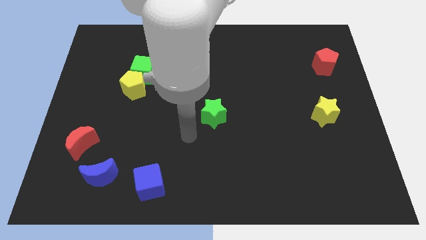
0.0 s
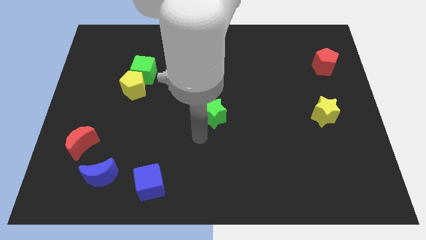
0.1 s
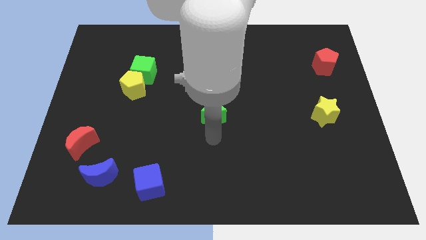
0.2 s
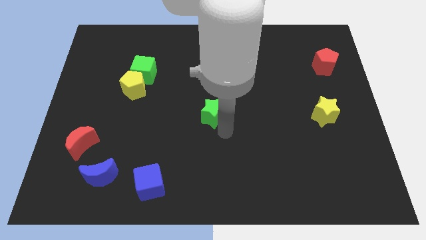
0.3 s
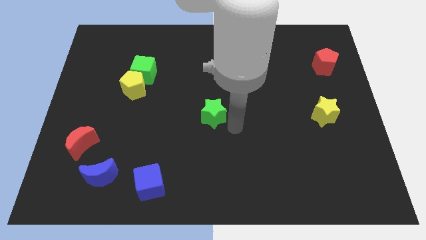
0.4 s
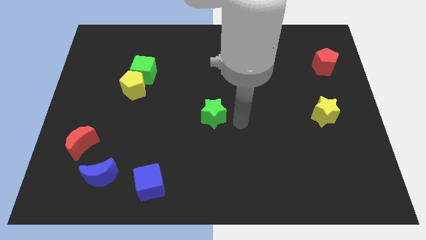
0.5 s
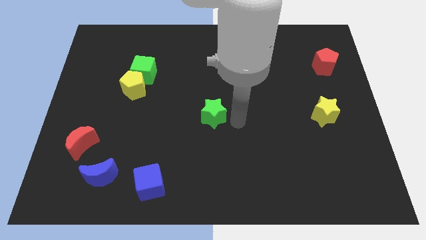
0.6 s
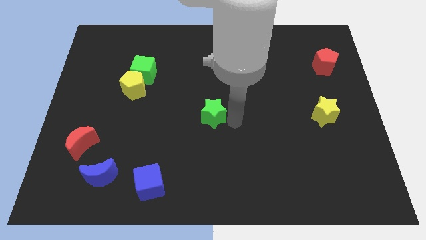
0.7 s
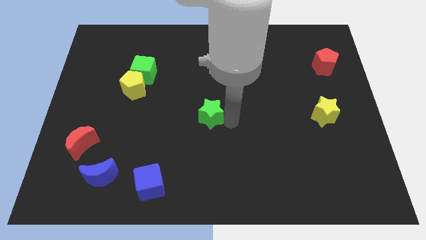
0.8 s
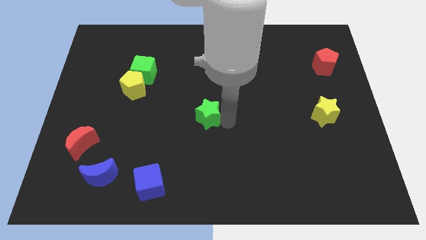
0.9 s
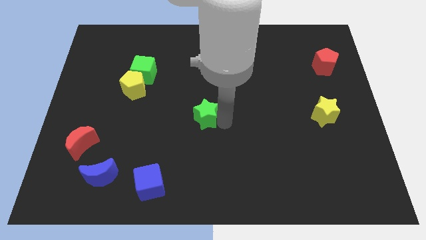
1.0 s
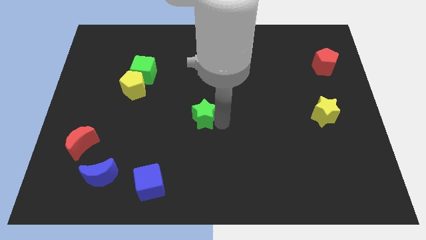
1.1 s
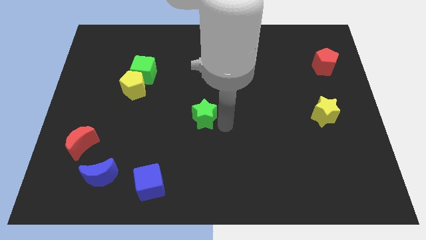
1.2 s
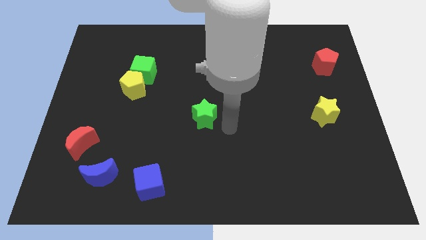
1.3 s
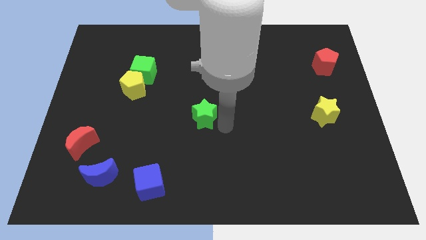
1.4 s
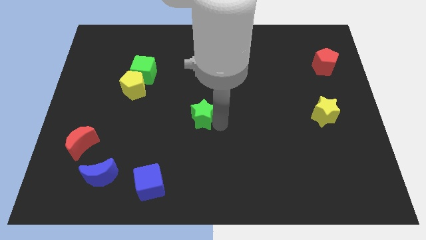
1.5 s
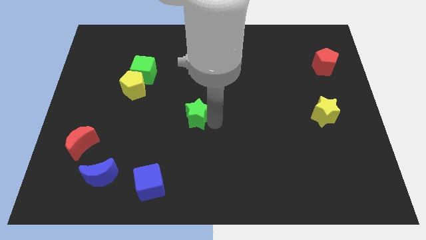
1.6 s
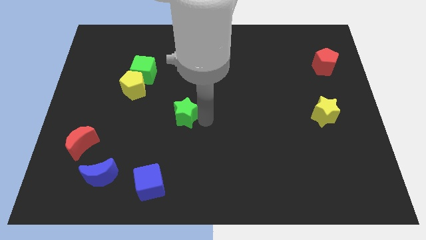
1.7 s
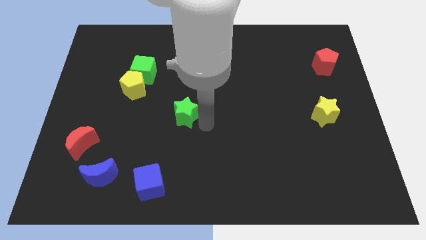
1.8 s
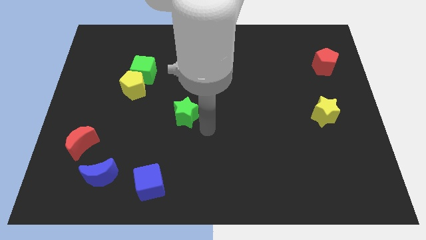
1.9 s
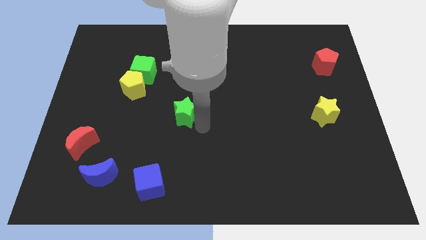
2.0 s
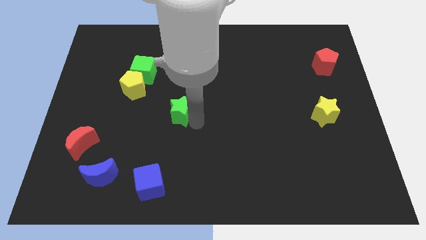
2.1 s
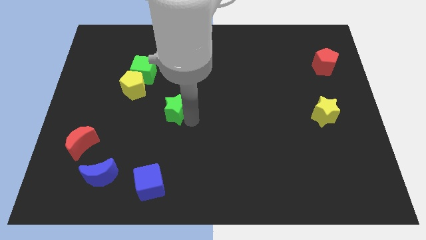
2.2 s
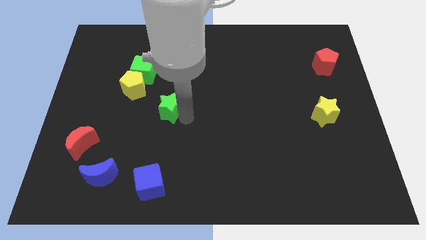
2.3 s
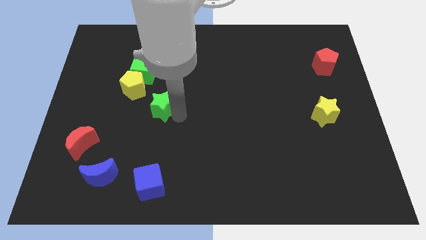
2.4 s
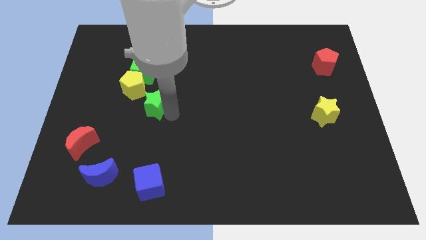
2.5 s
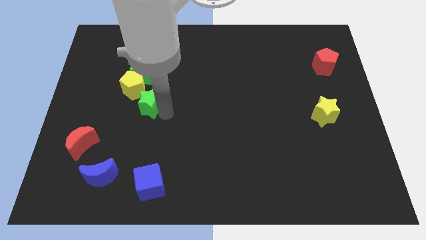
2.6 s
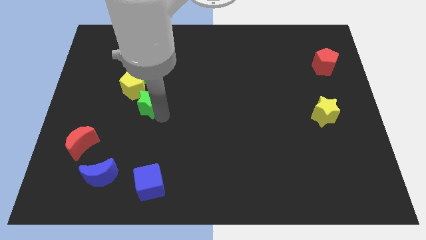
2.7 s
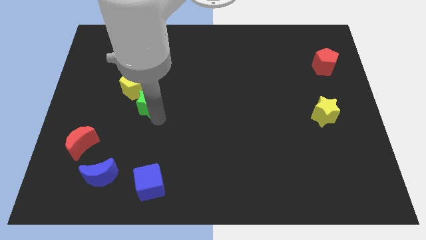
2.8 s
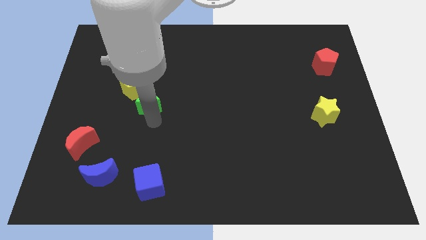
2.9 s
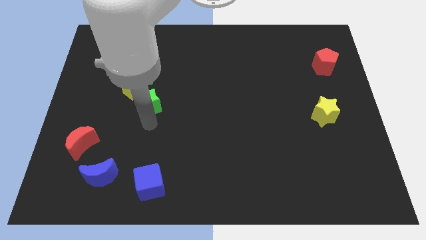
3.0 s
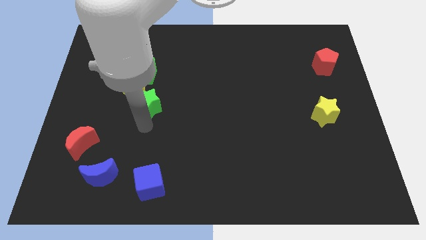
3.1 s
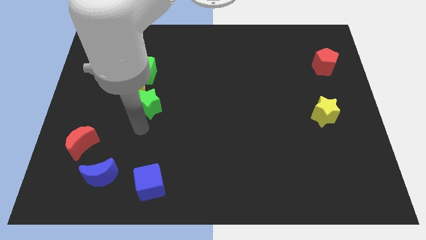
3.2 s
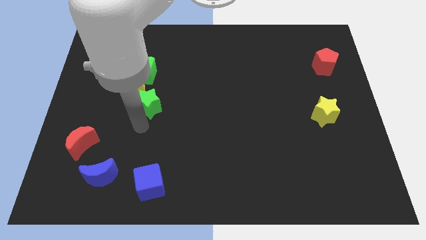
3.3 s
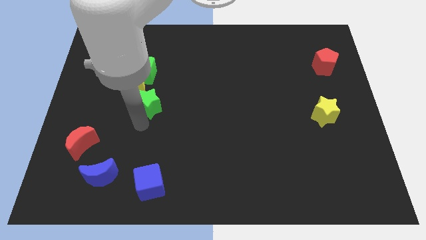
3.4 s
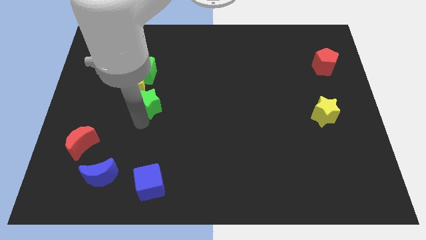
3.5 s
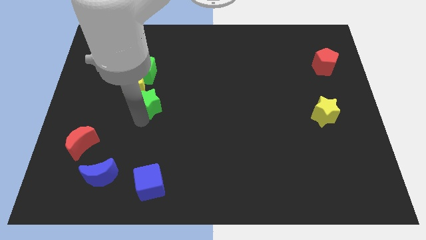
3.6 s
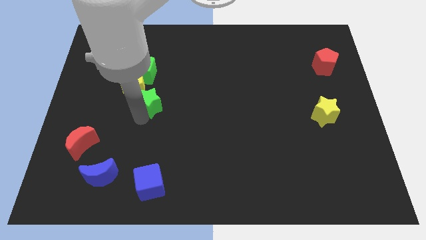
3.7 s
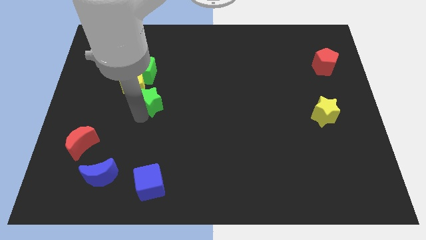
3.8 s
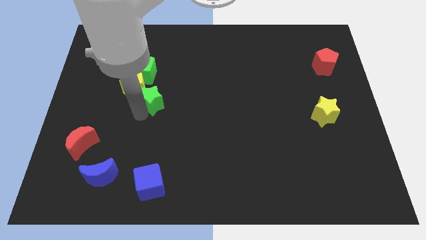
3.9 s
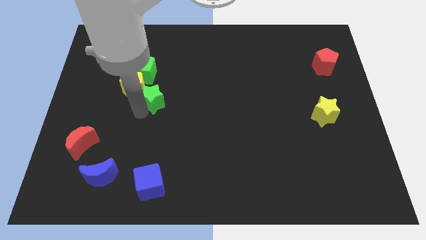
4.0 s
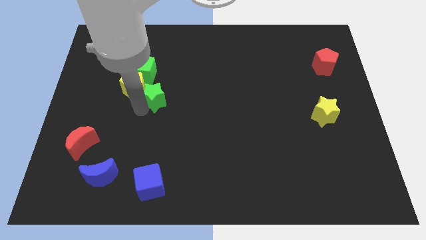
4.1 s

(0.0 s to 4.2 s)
slide the green star towards the yellow pentagon

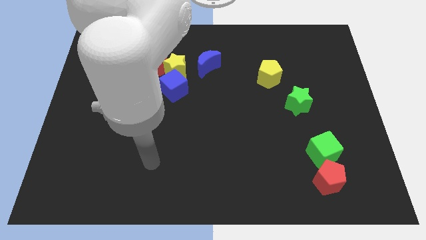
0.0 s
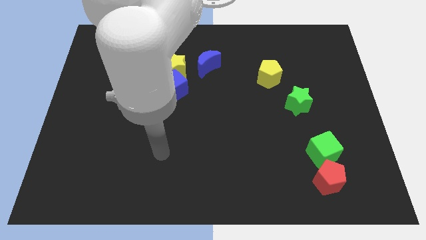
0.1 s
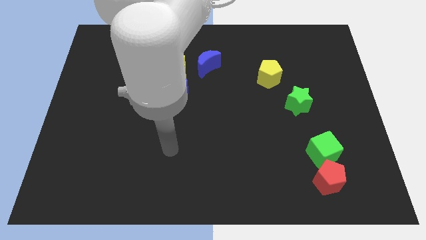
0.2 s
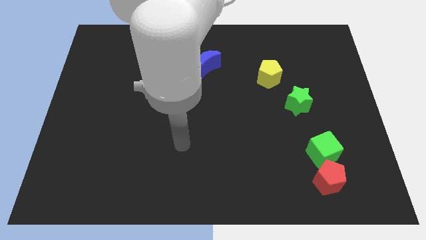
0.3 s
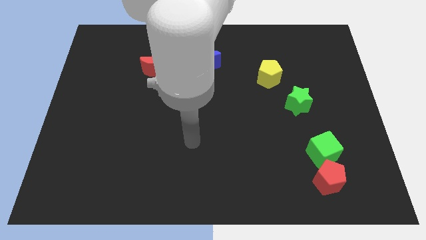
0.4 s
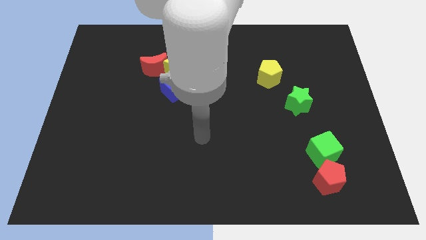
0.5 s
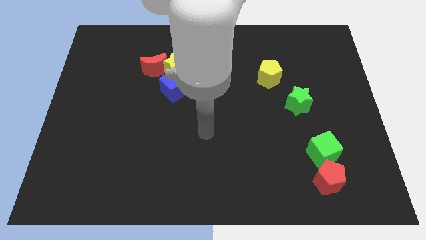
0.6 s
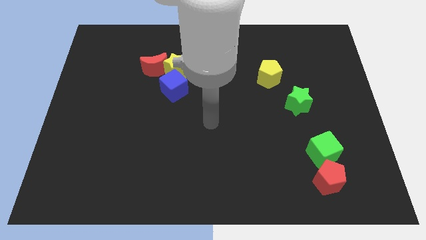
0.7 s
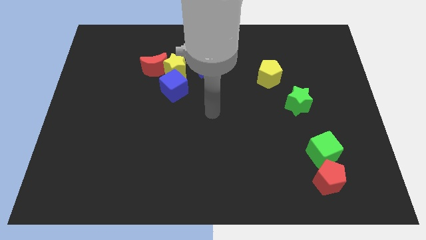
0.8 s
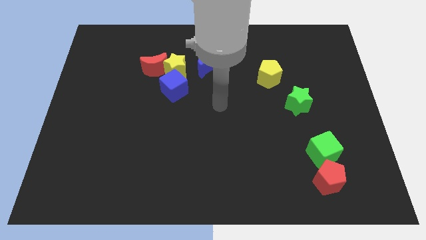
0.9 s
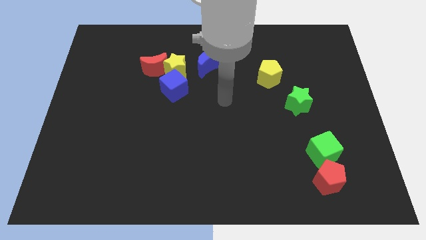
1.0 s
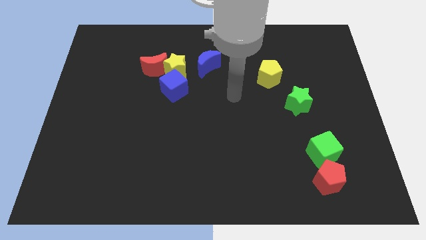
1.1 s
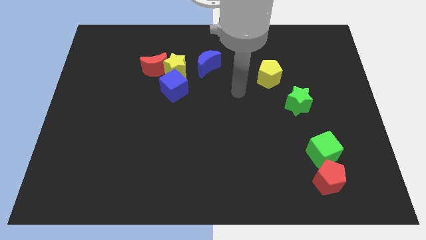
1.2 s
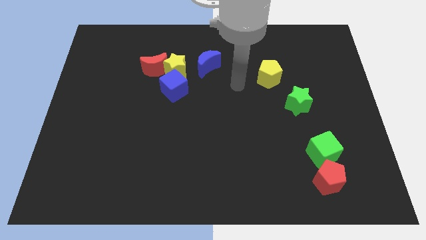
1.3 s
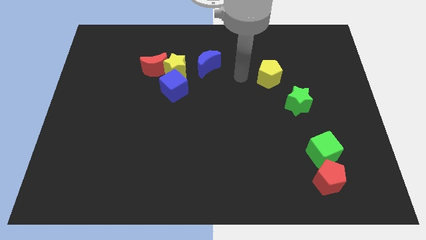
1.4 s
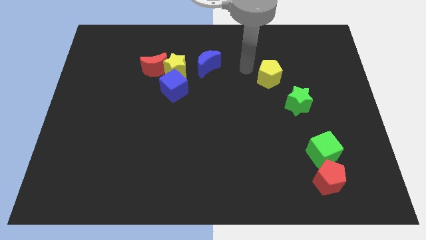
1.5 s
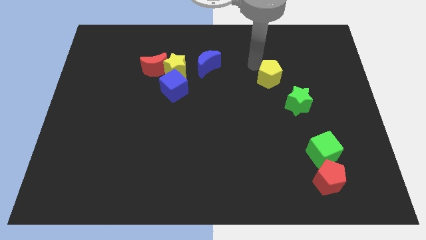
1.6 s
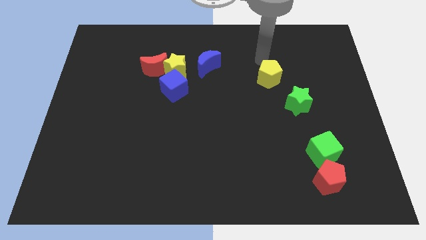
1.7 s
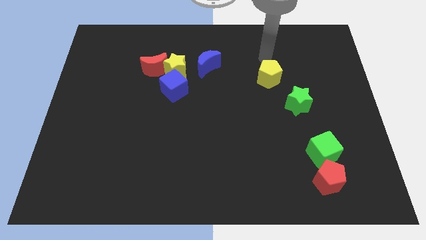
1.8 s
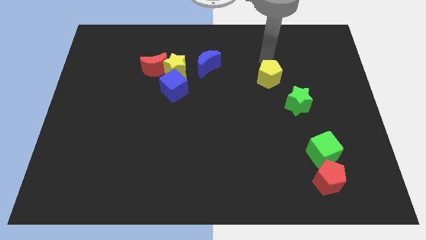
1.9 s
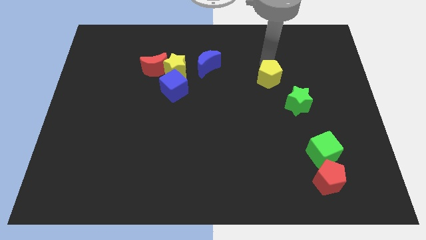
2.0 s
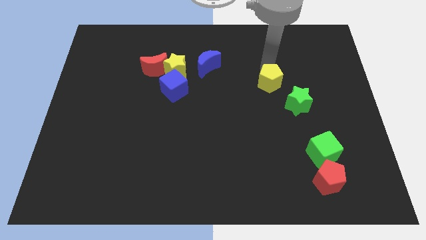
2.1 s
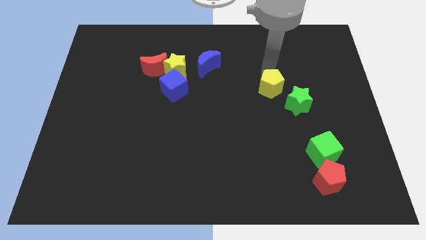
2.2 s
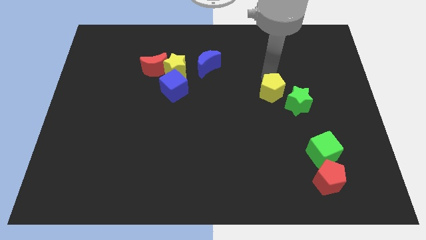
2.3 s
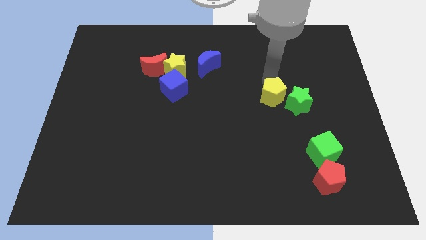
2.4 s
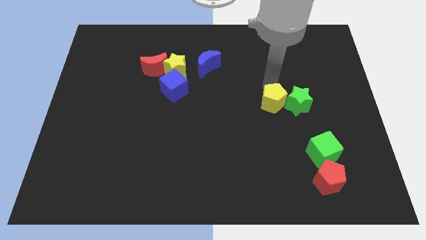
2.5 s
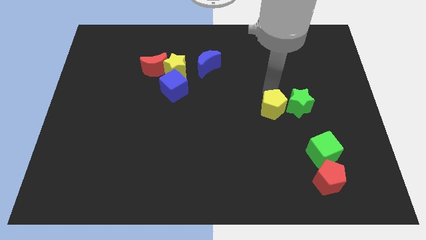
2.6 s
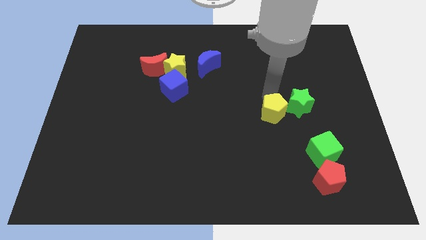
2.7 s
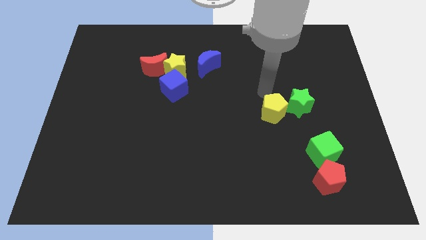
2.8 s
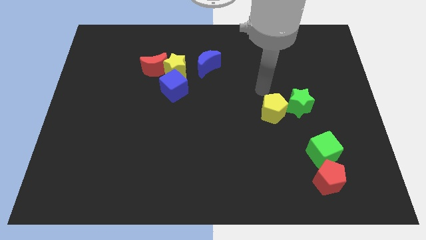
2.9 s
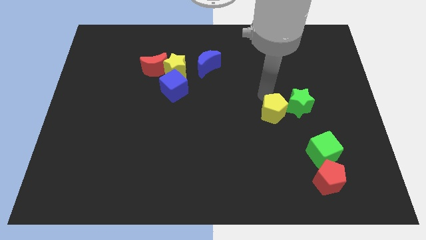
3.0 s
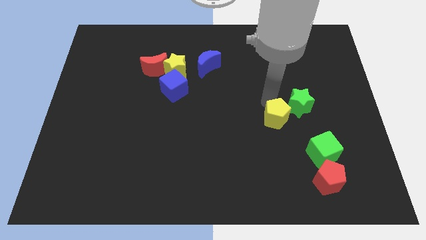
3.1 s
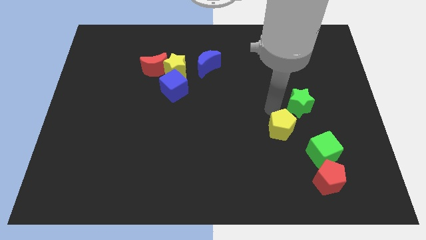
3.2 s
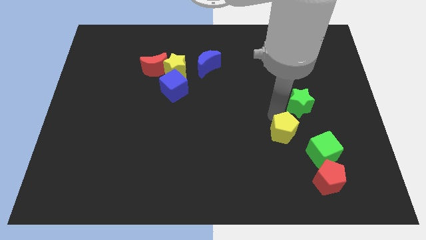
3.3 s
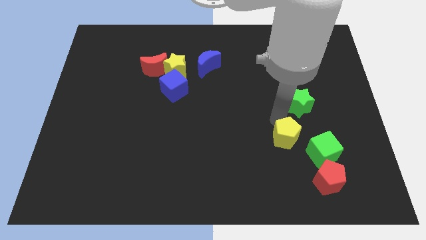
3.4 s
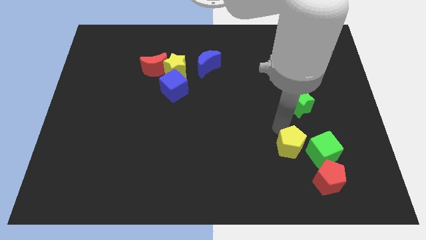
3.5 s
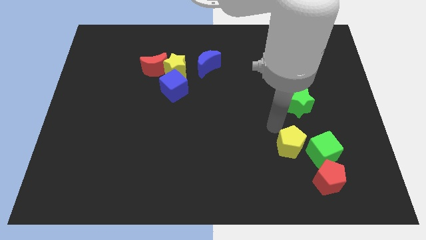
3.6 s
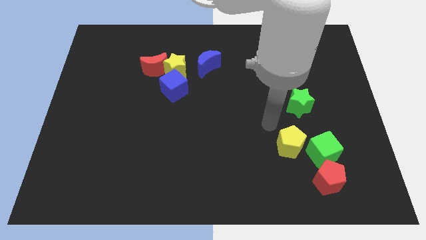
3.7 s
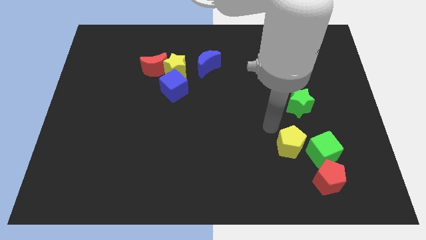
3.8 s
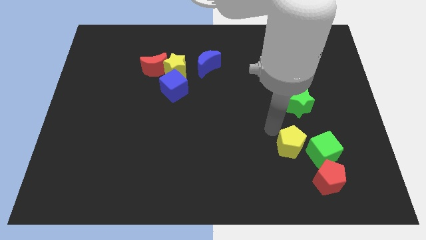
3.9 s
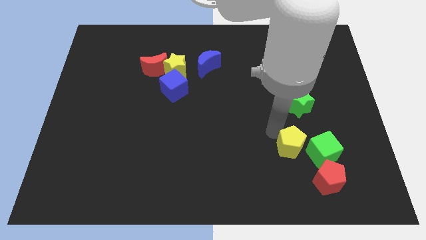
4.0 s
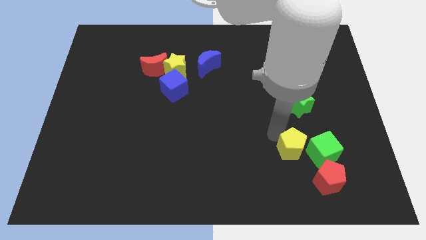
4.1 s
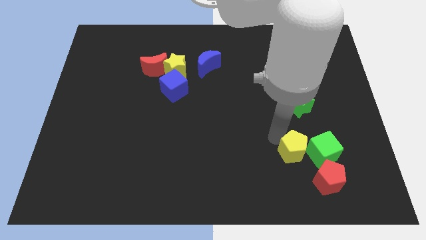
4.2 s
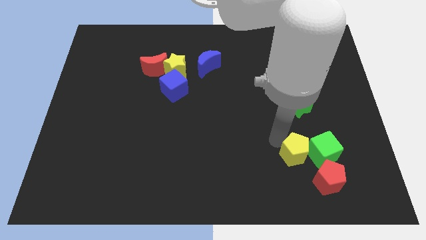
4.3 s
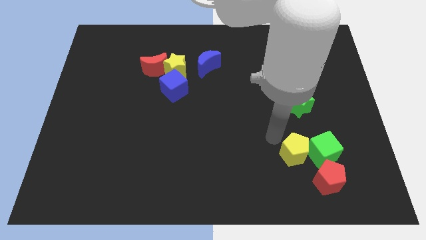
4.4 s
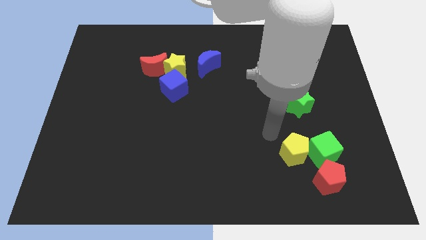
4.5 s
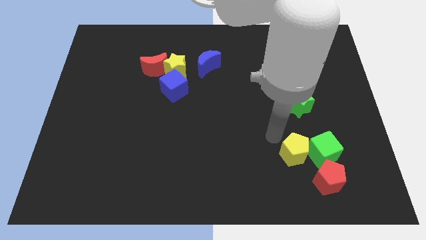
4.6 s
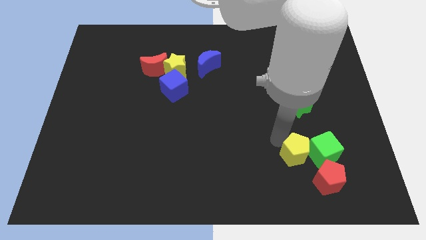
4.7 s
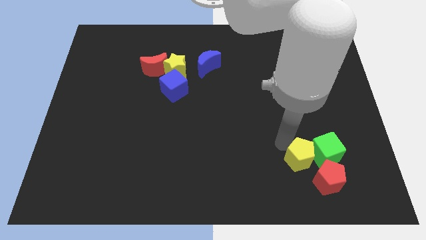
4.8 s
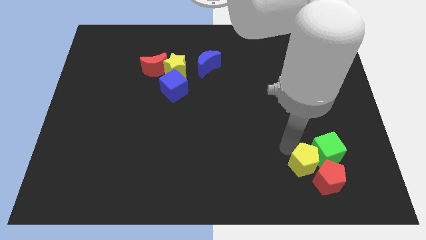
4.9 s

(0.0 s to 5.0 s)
put the yellow pentagon next to the red pentagon
